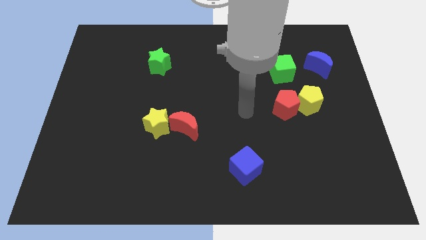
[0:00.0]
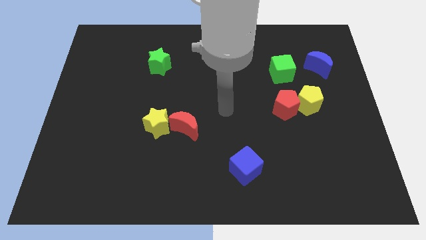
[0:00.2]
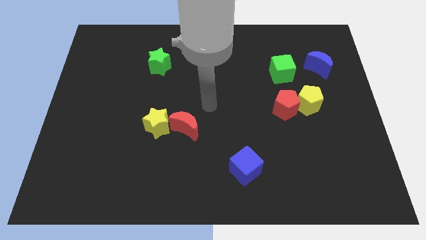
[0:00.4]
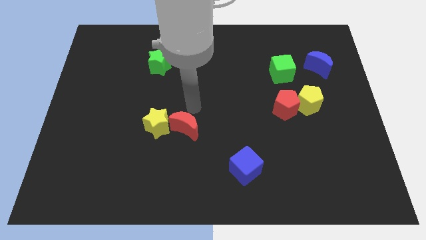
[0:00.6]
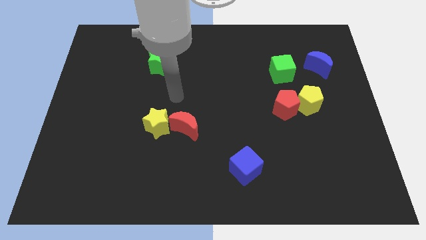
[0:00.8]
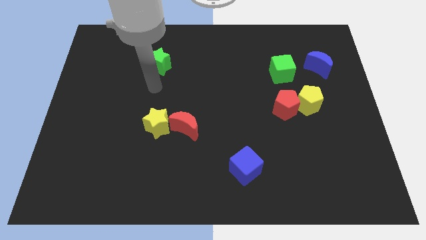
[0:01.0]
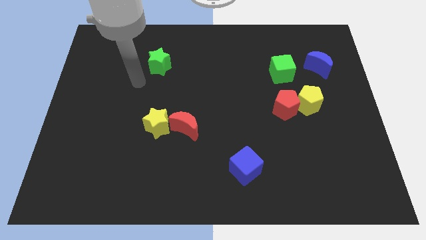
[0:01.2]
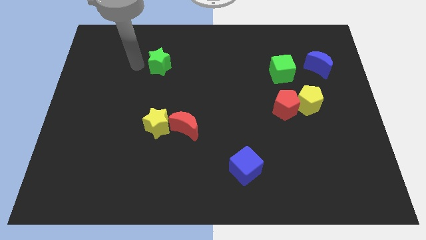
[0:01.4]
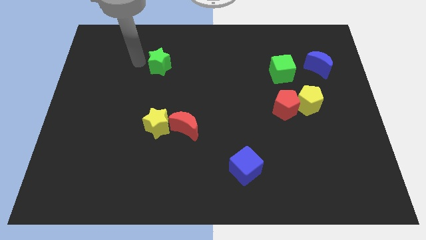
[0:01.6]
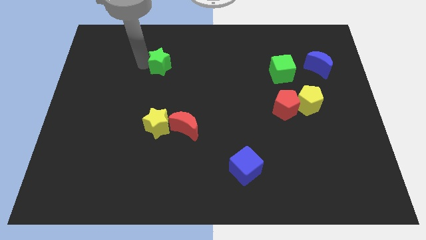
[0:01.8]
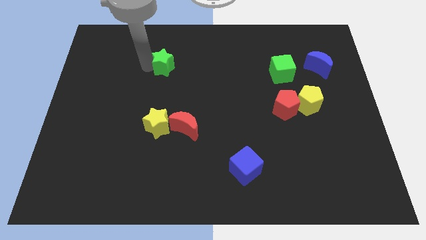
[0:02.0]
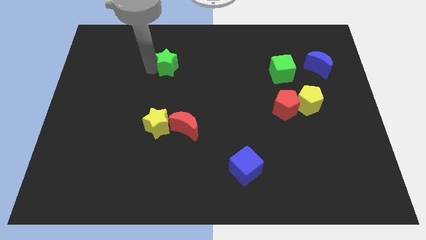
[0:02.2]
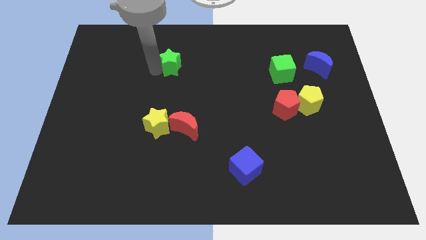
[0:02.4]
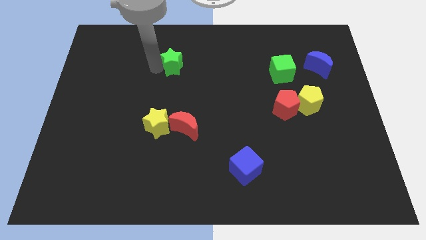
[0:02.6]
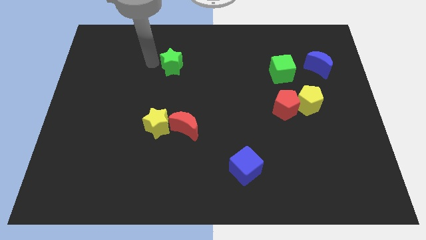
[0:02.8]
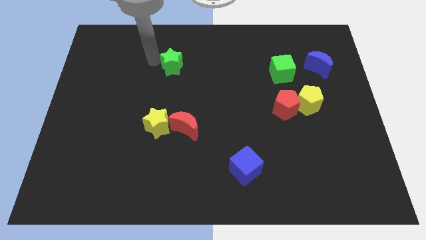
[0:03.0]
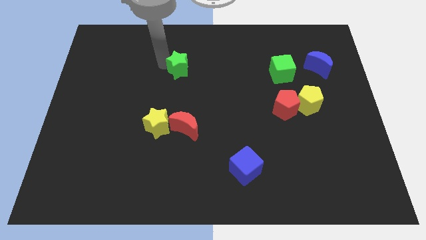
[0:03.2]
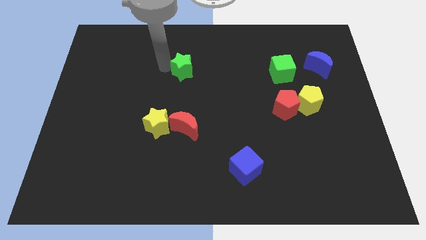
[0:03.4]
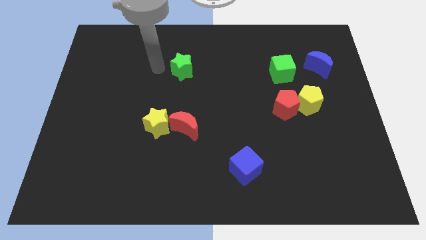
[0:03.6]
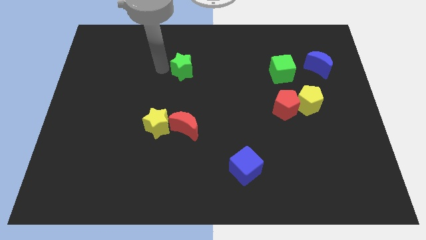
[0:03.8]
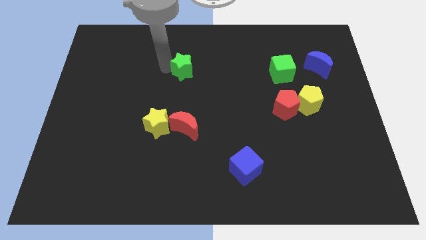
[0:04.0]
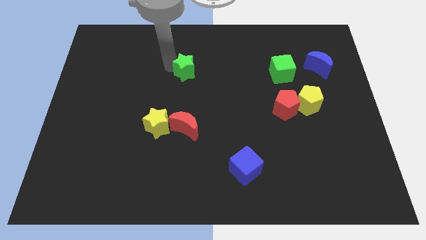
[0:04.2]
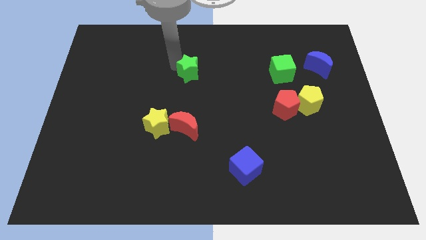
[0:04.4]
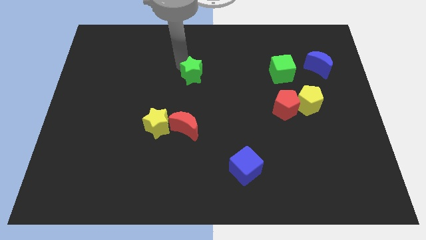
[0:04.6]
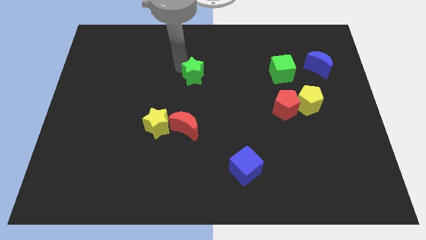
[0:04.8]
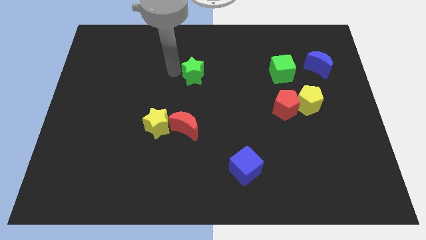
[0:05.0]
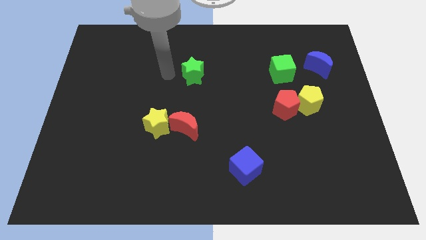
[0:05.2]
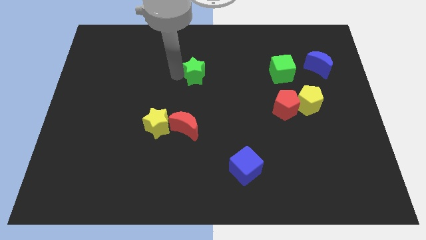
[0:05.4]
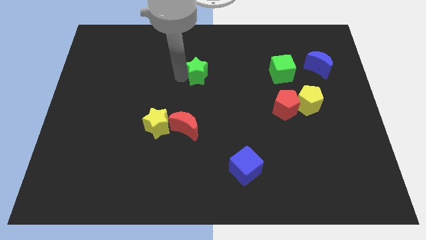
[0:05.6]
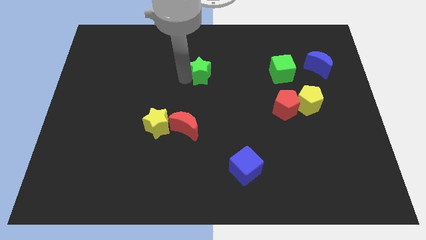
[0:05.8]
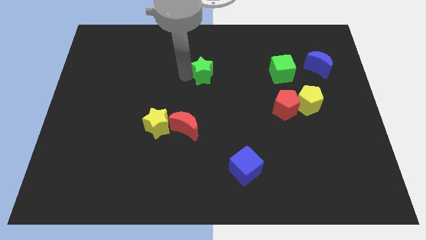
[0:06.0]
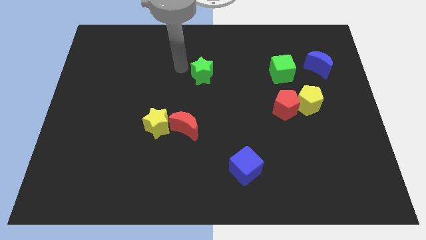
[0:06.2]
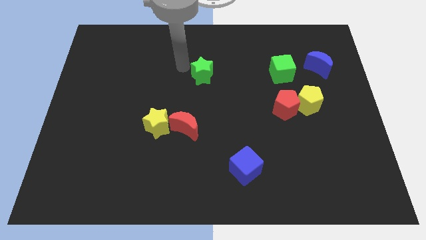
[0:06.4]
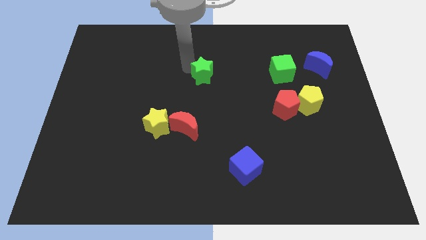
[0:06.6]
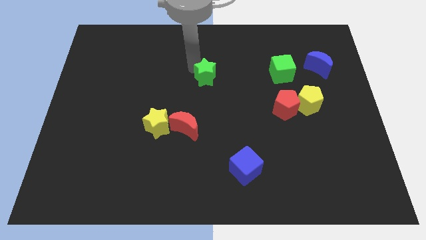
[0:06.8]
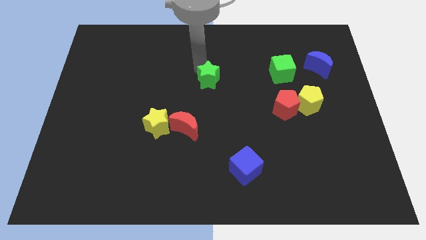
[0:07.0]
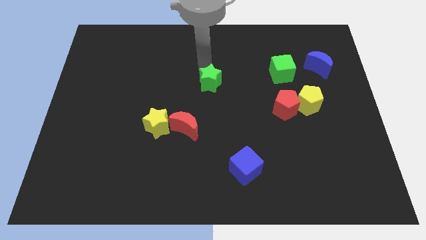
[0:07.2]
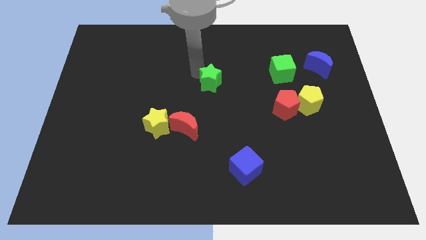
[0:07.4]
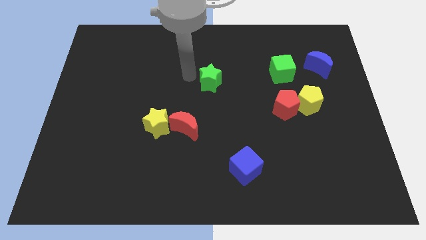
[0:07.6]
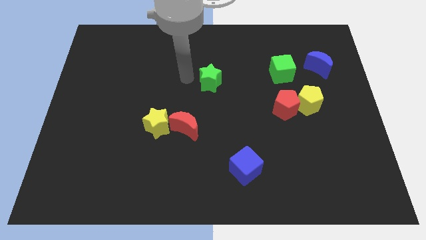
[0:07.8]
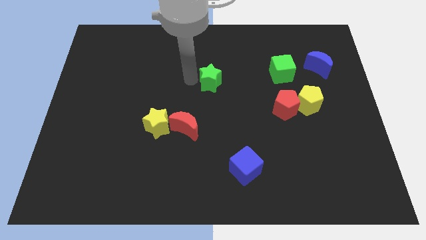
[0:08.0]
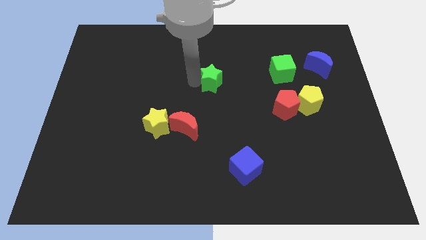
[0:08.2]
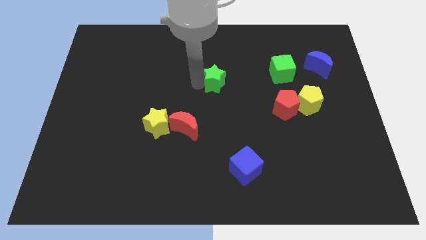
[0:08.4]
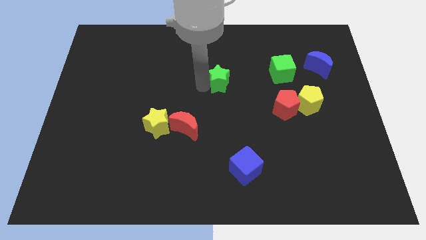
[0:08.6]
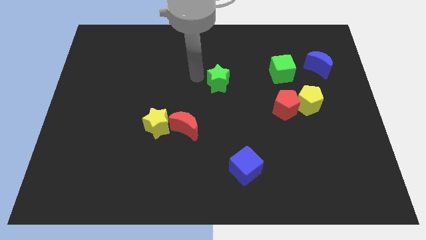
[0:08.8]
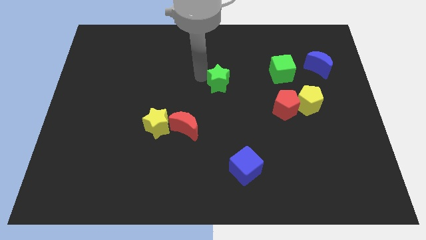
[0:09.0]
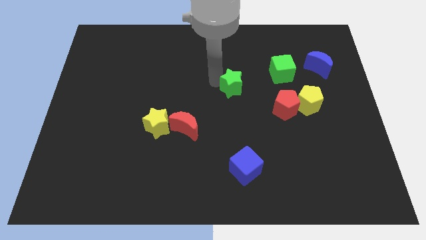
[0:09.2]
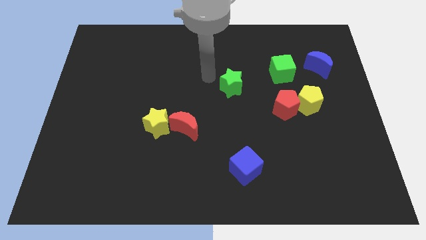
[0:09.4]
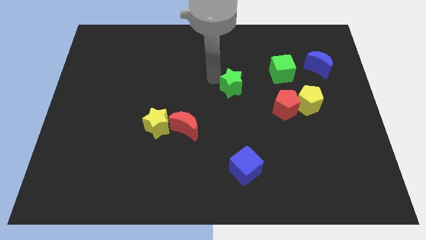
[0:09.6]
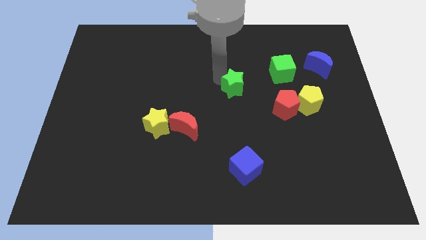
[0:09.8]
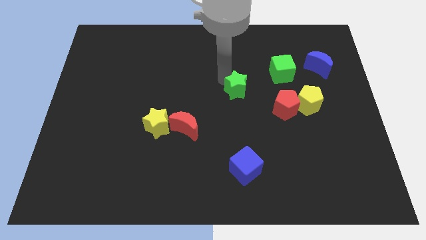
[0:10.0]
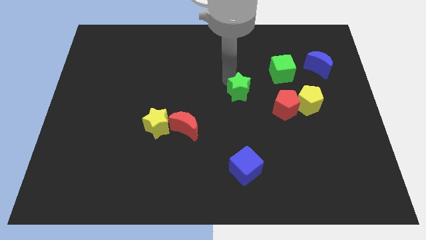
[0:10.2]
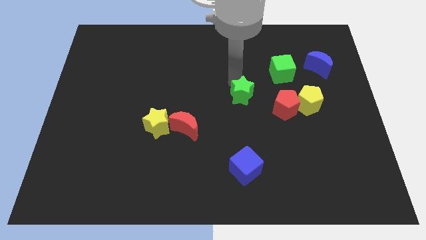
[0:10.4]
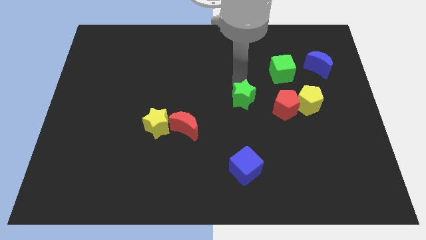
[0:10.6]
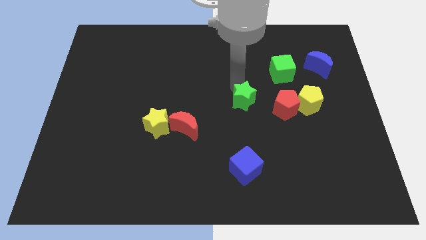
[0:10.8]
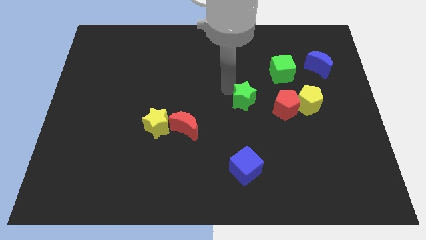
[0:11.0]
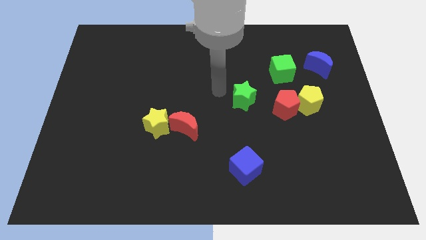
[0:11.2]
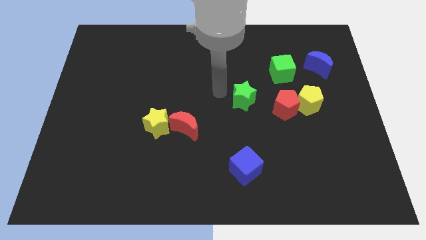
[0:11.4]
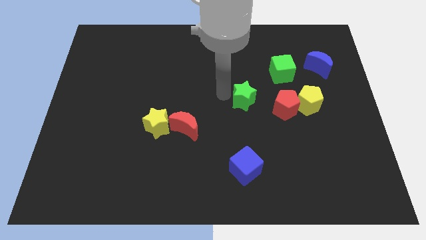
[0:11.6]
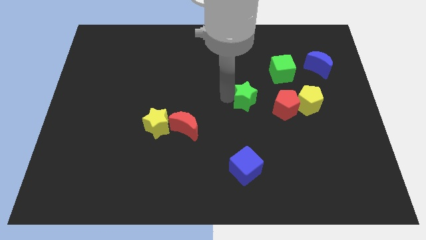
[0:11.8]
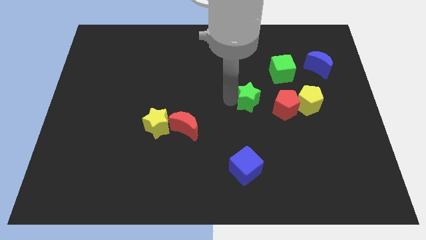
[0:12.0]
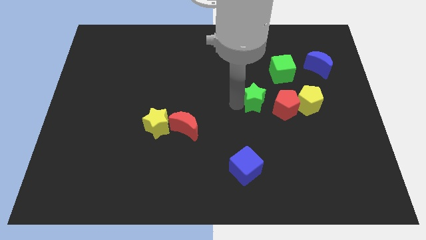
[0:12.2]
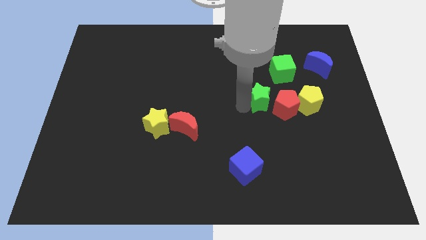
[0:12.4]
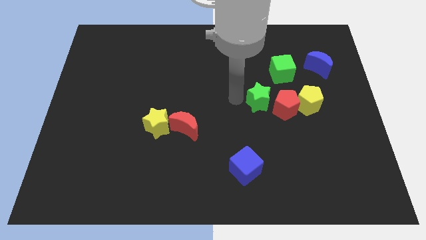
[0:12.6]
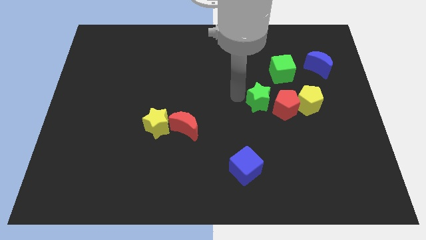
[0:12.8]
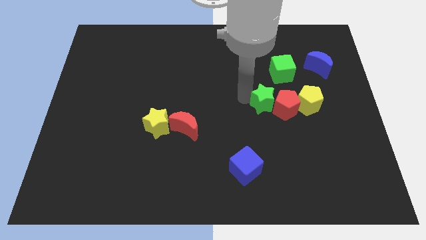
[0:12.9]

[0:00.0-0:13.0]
push the green star next to the red pentagon

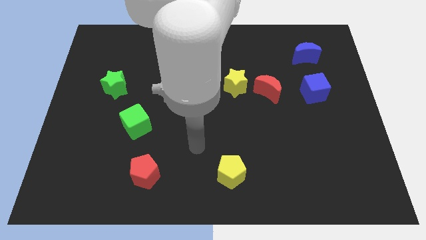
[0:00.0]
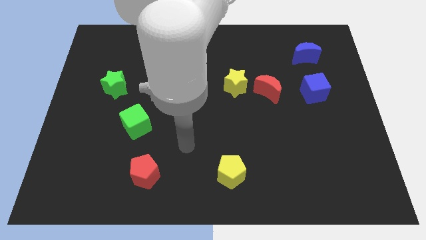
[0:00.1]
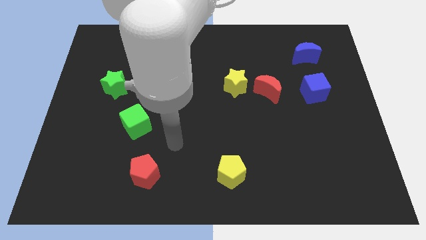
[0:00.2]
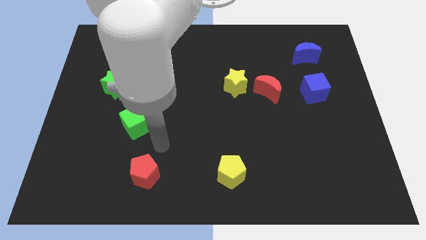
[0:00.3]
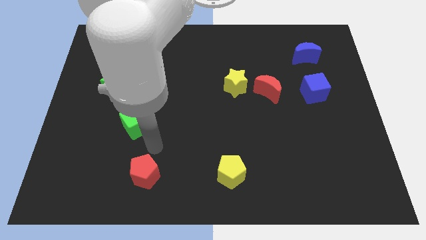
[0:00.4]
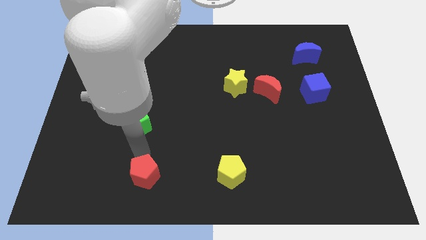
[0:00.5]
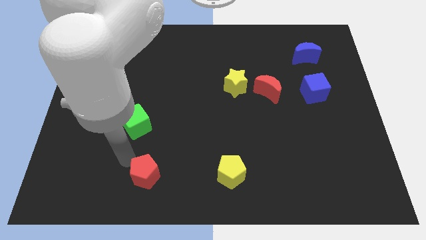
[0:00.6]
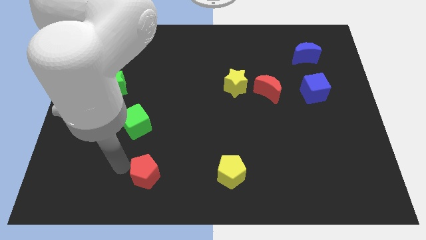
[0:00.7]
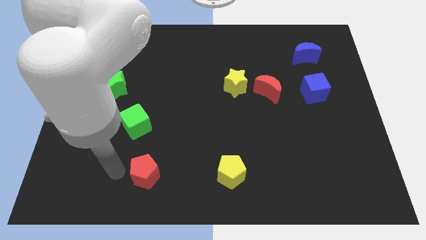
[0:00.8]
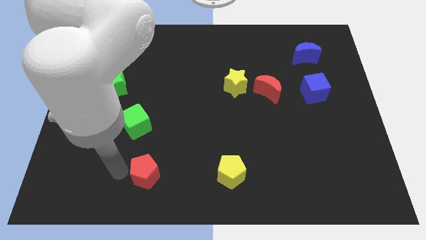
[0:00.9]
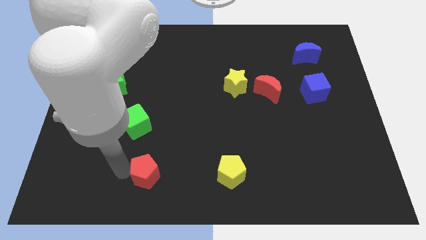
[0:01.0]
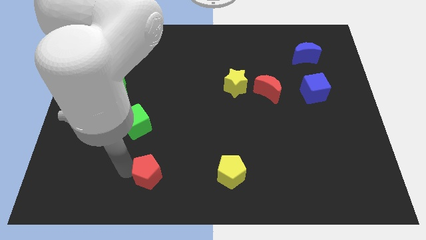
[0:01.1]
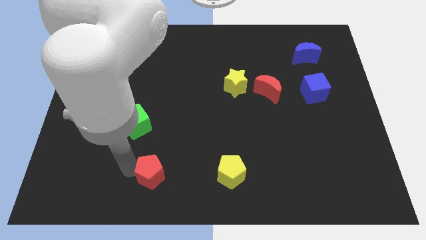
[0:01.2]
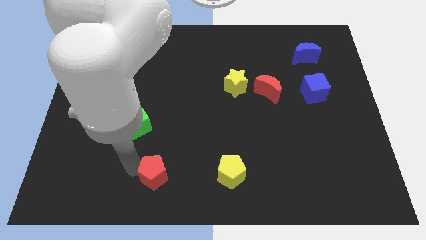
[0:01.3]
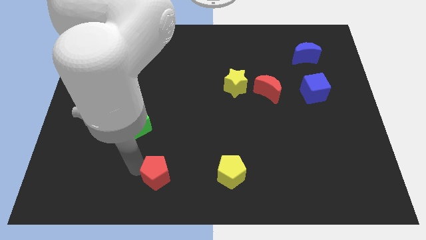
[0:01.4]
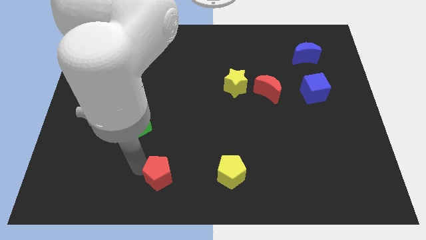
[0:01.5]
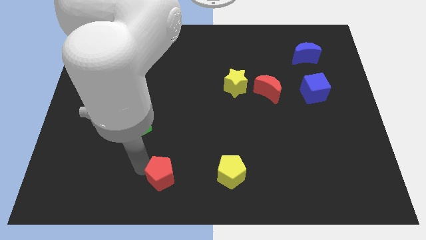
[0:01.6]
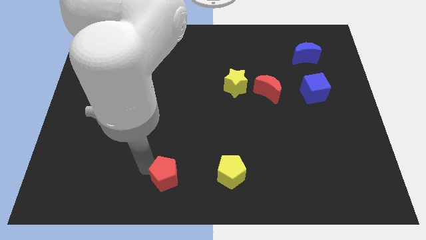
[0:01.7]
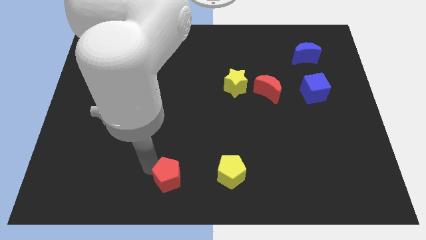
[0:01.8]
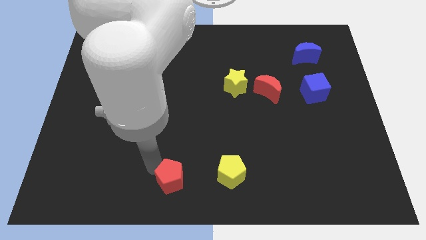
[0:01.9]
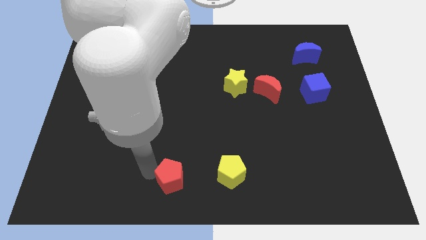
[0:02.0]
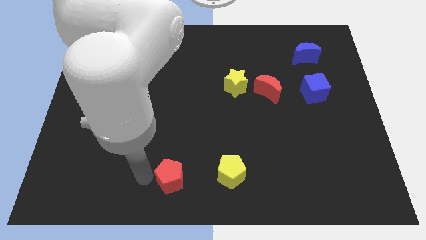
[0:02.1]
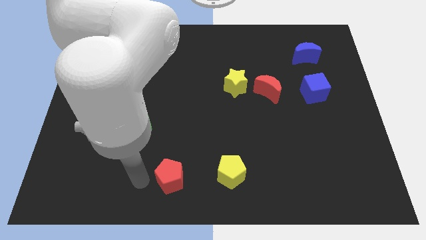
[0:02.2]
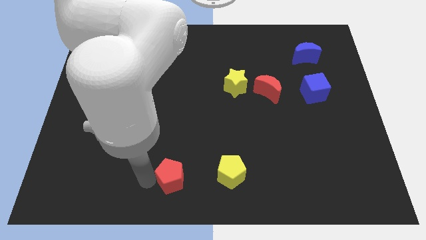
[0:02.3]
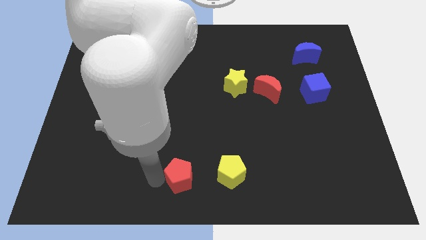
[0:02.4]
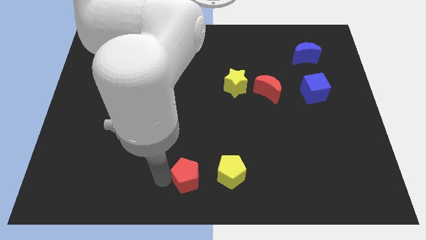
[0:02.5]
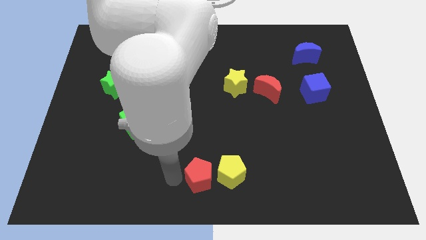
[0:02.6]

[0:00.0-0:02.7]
slide the red pentagon next to the yellow pentagon
